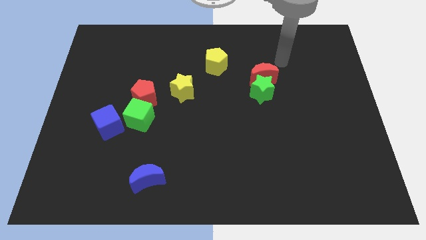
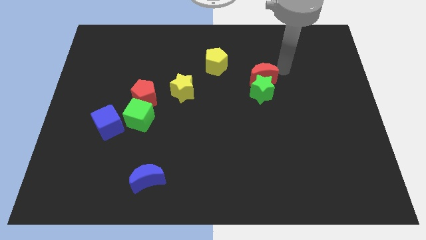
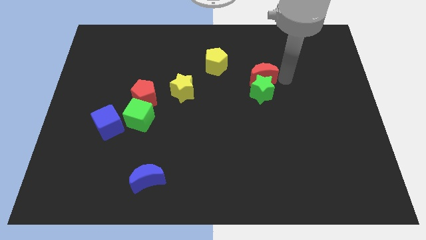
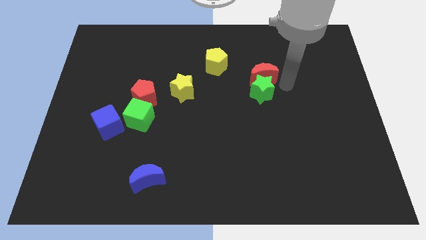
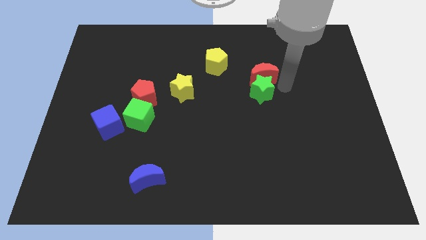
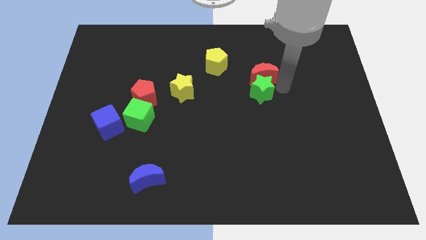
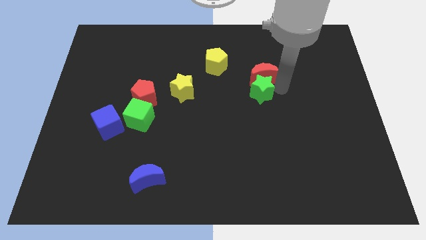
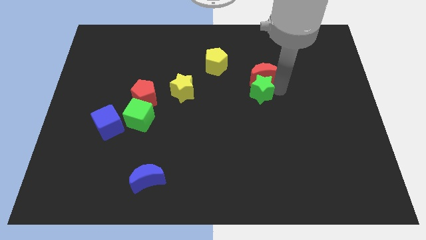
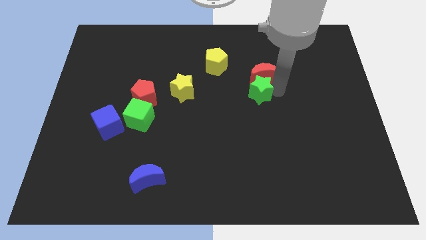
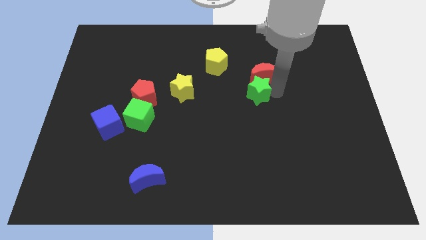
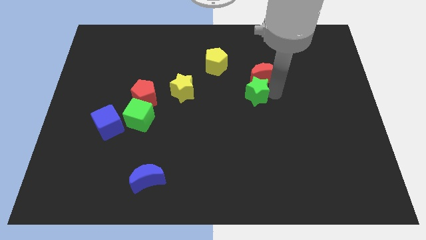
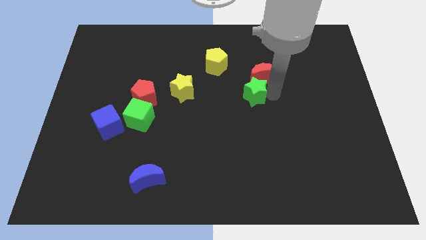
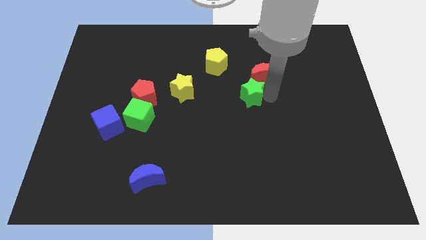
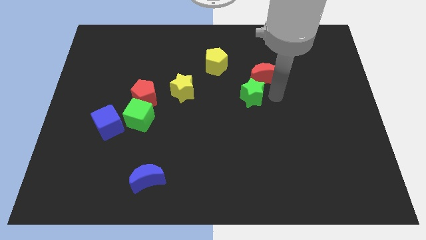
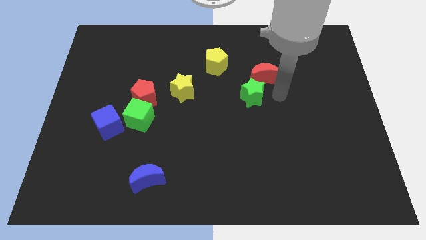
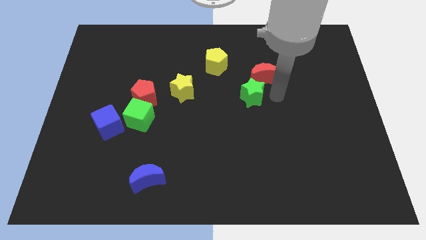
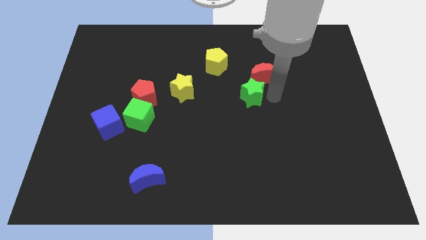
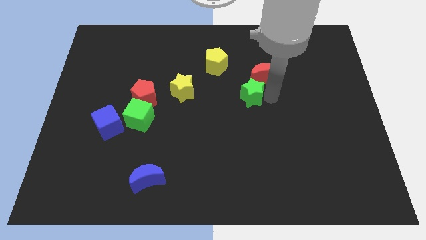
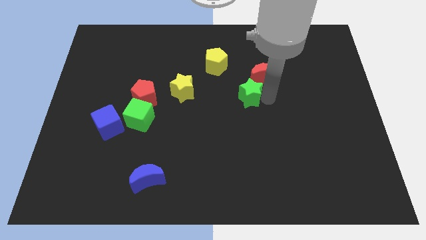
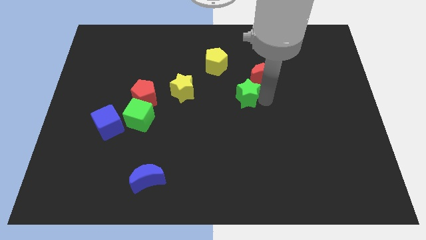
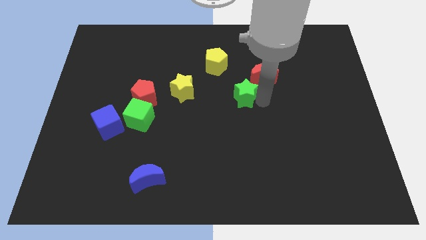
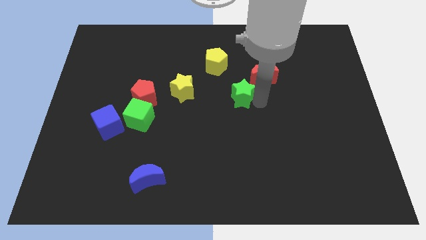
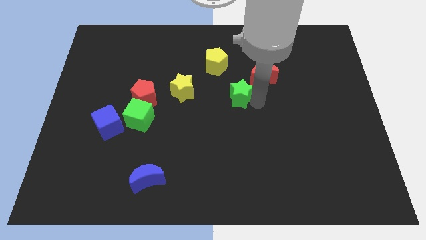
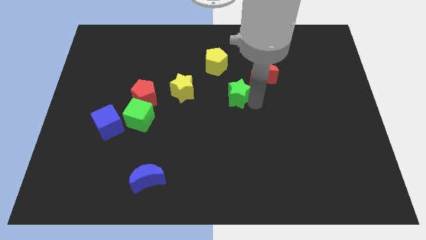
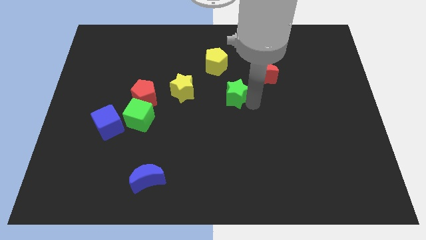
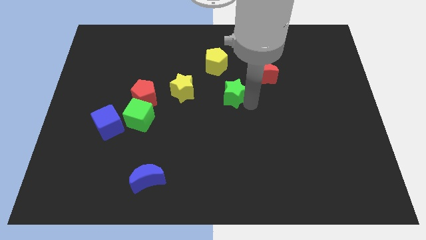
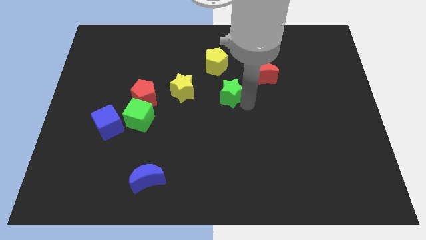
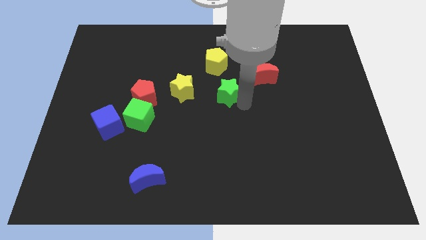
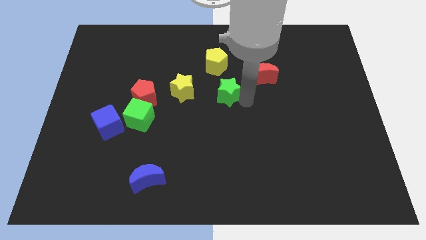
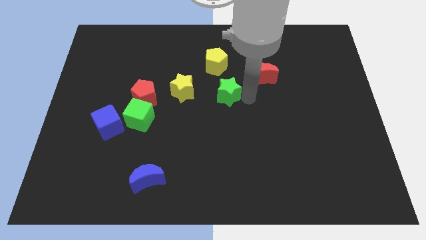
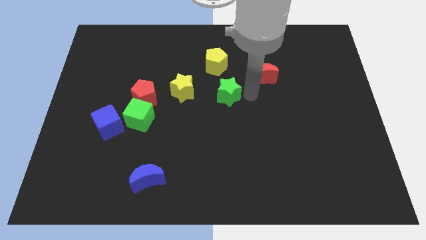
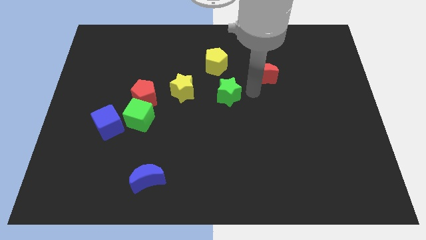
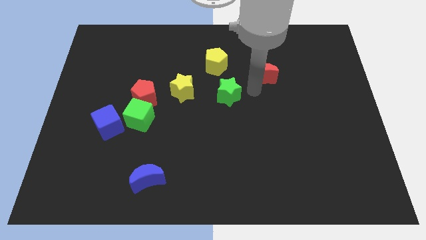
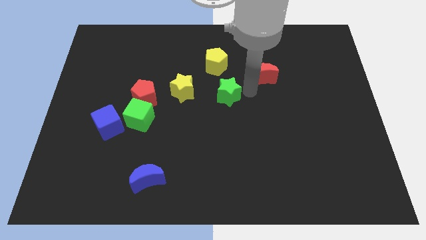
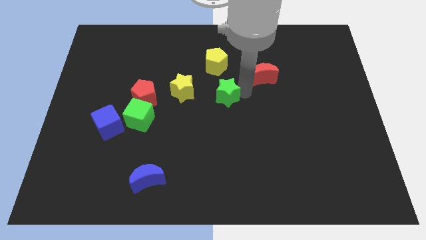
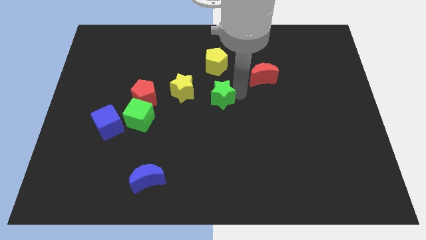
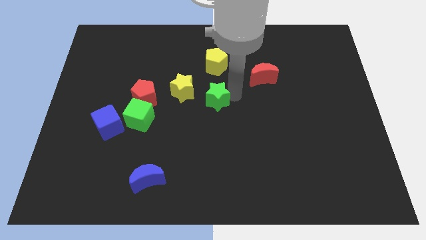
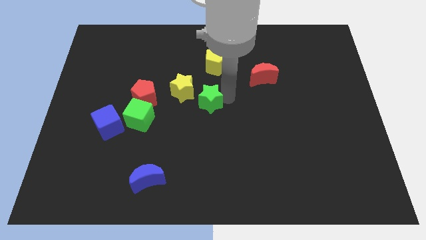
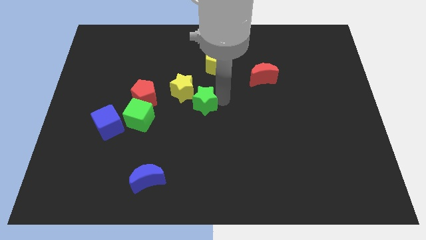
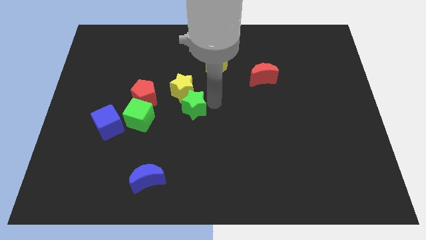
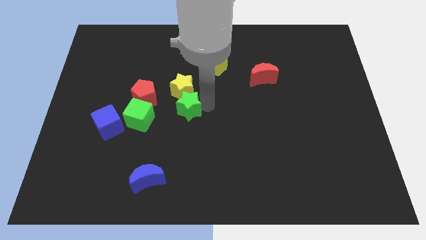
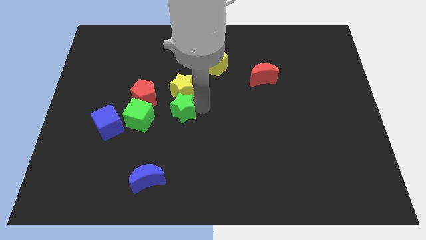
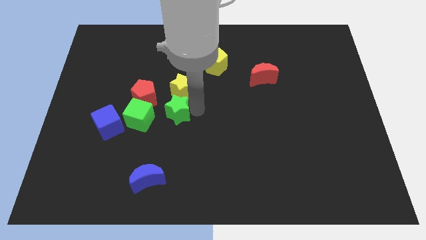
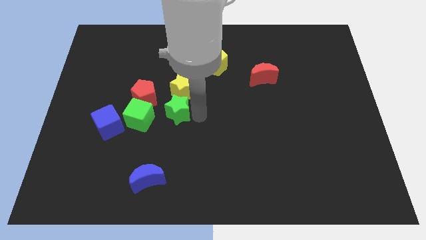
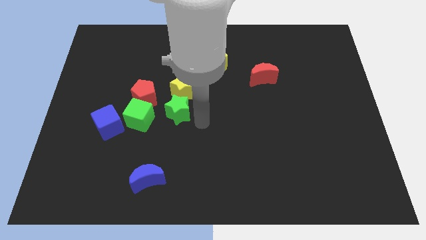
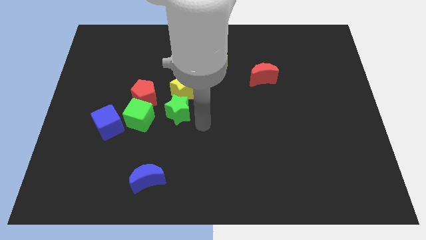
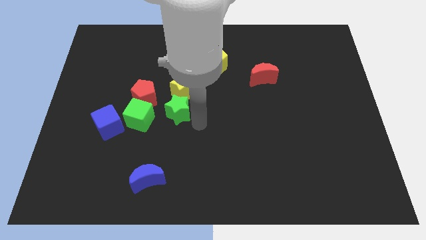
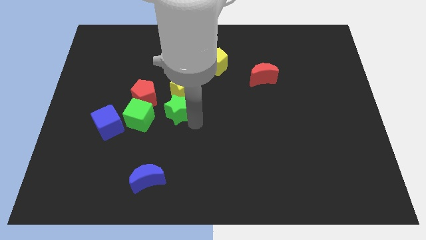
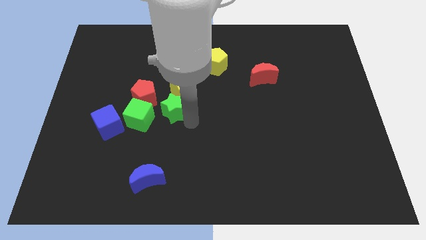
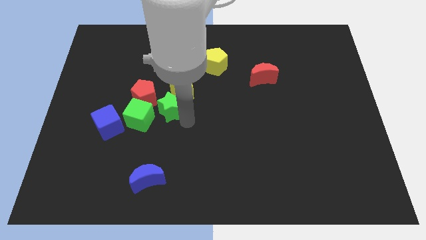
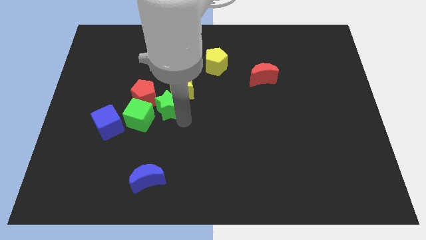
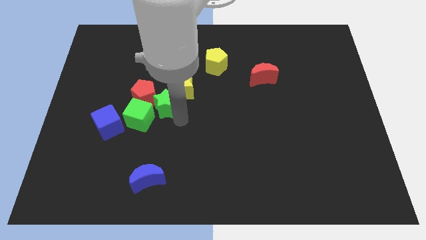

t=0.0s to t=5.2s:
put the green star towards the red pentagon

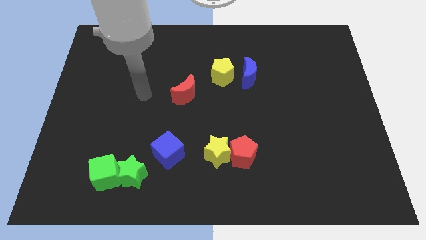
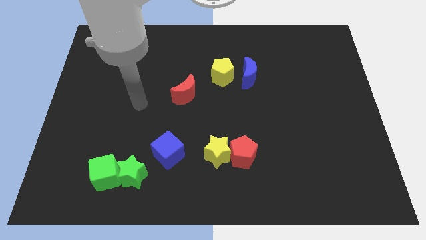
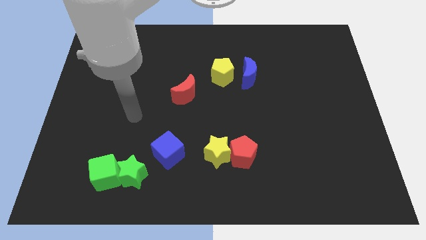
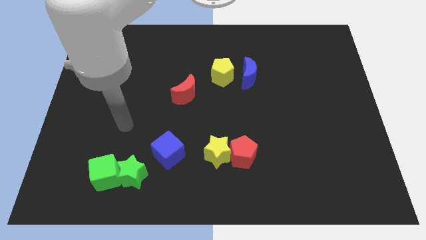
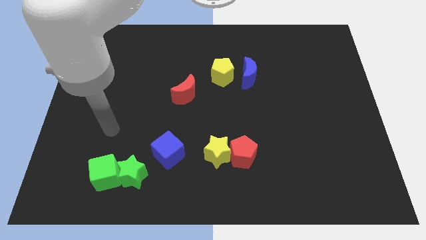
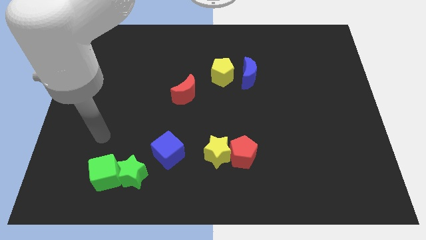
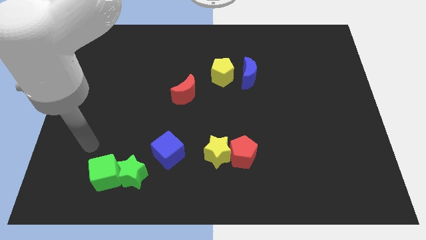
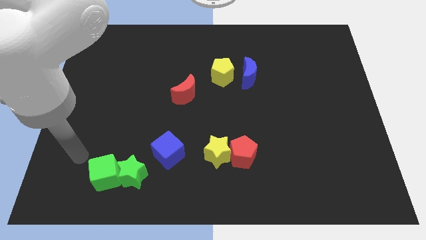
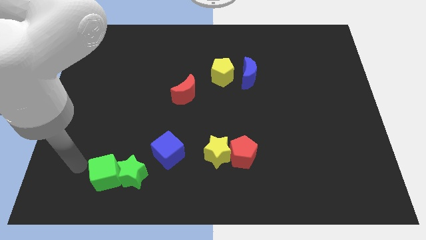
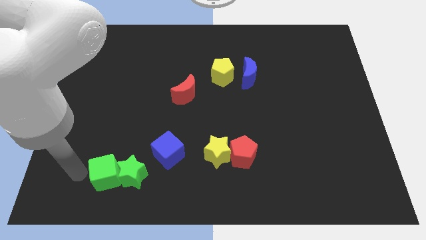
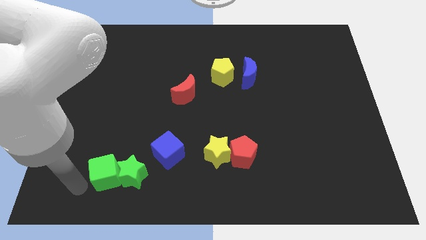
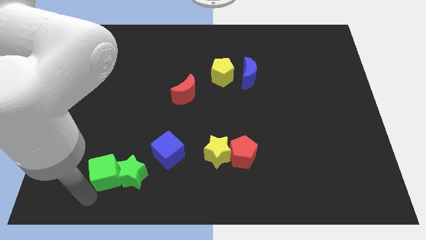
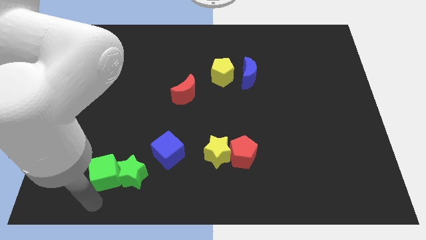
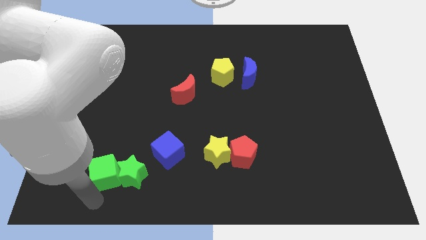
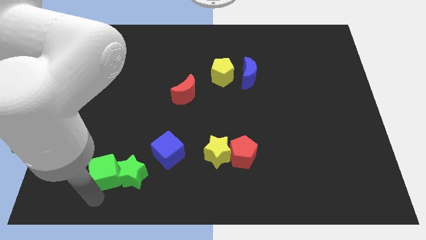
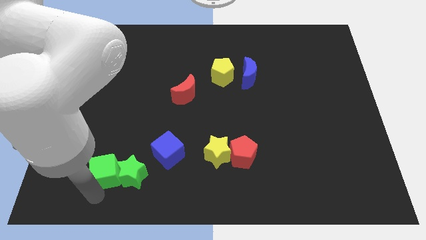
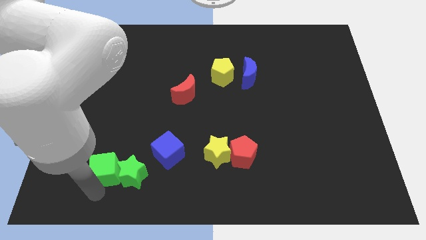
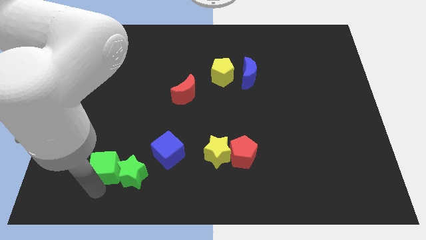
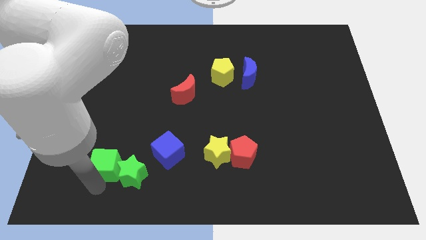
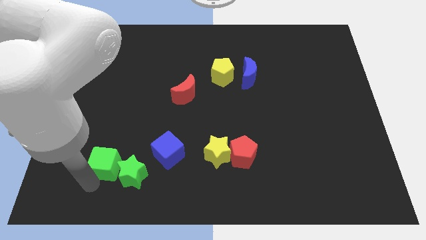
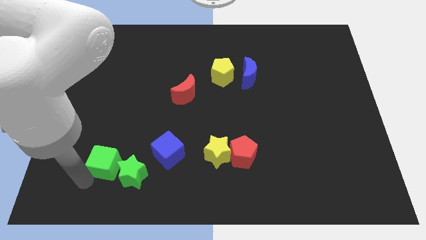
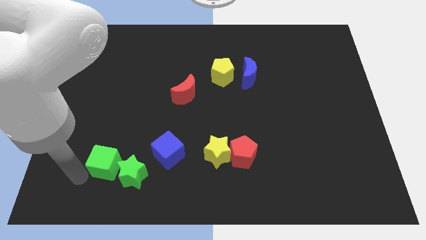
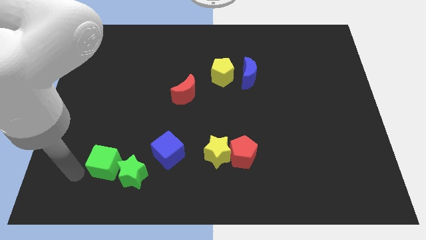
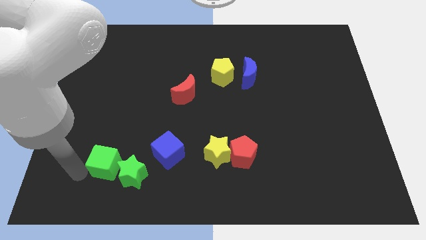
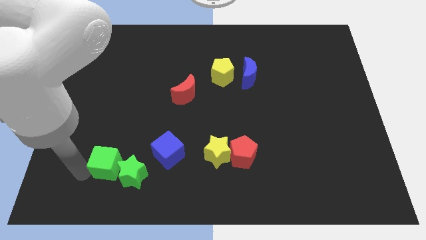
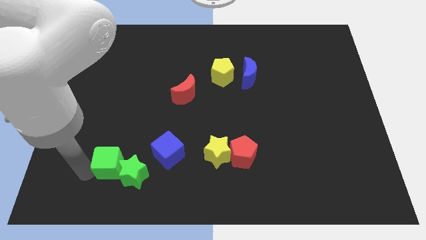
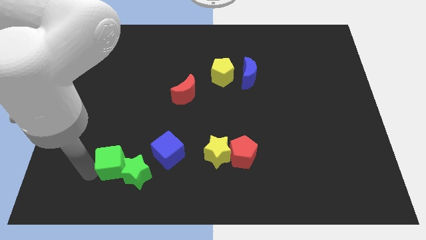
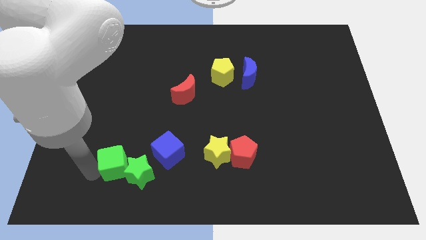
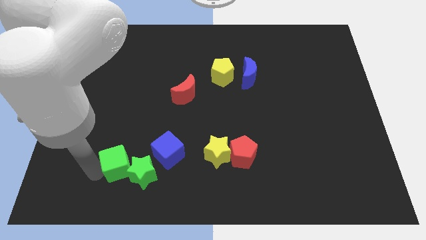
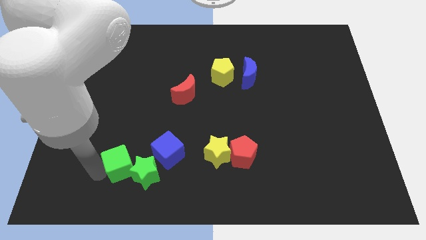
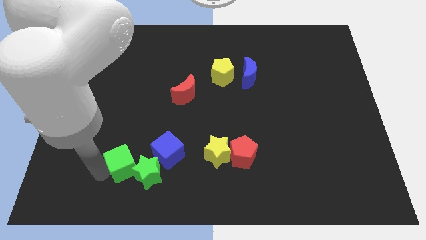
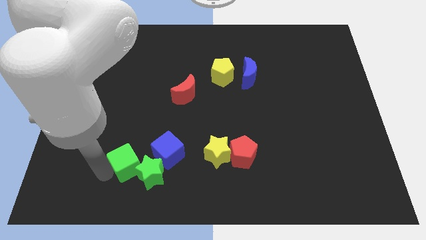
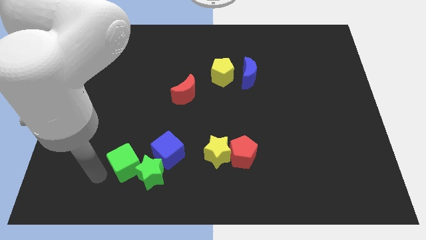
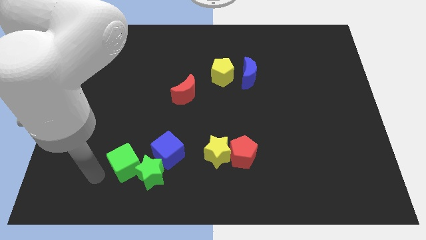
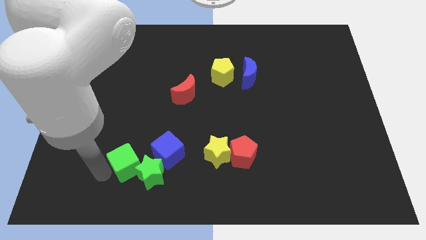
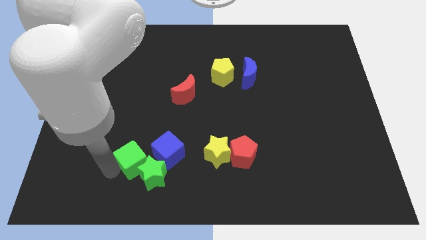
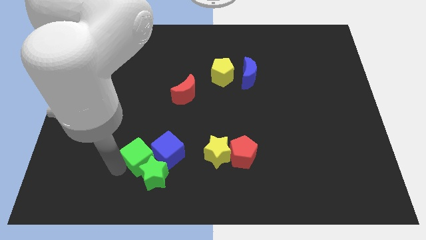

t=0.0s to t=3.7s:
move the green cube close to the blue cube
